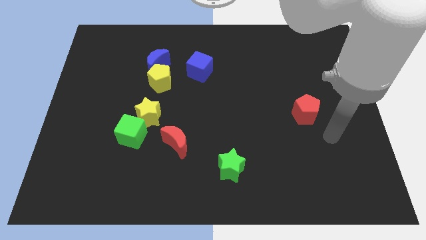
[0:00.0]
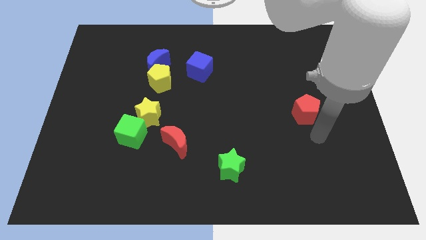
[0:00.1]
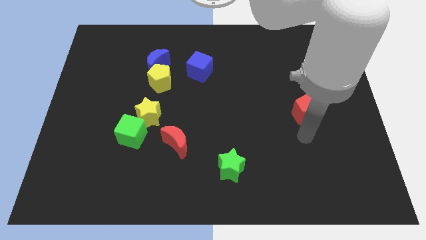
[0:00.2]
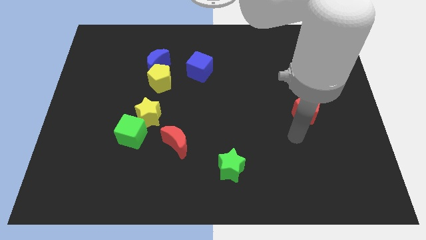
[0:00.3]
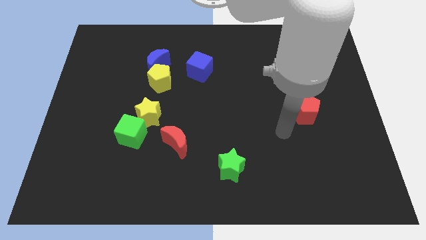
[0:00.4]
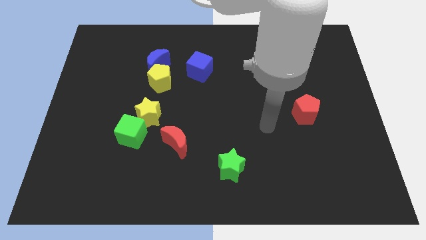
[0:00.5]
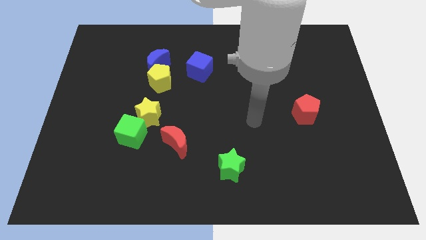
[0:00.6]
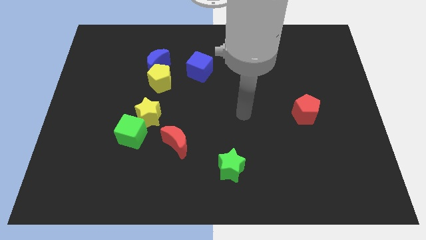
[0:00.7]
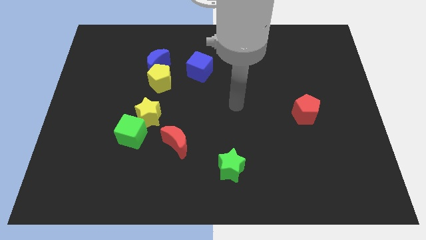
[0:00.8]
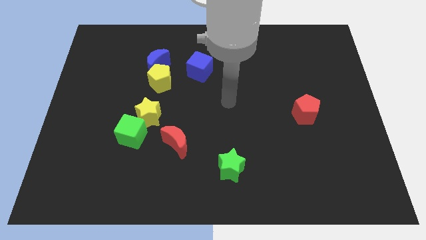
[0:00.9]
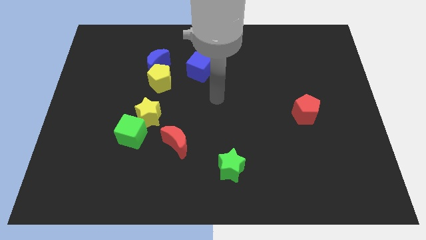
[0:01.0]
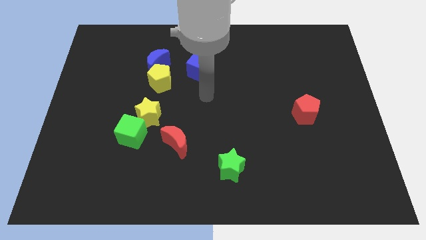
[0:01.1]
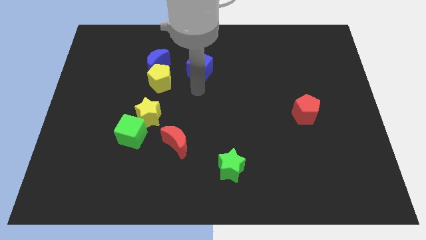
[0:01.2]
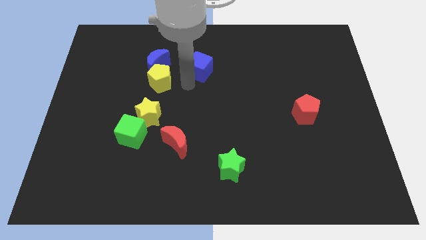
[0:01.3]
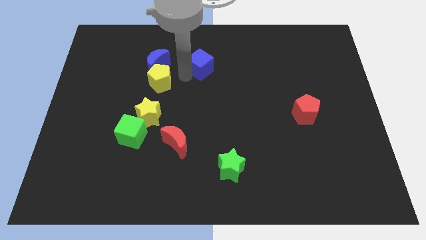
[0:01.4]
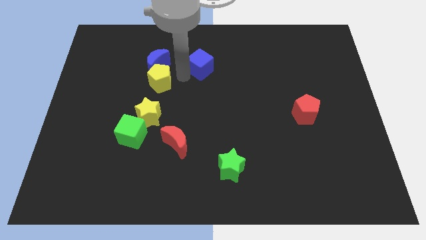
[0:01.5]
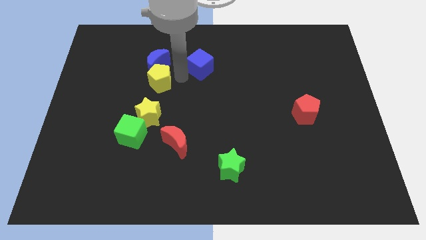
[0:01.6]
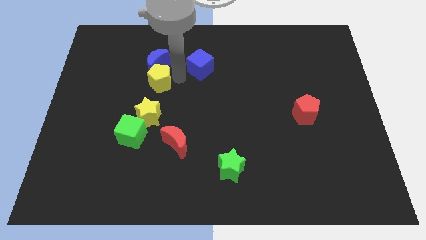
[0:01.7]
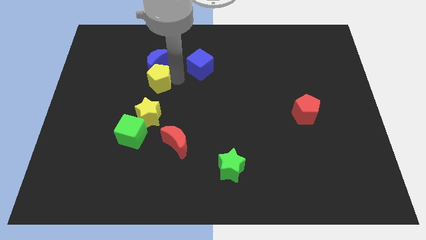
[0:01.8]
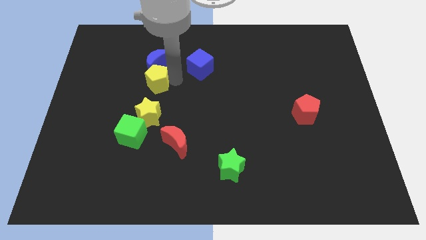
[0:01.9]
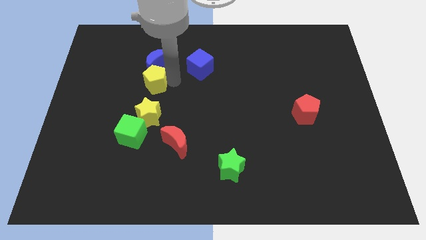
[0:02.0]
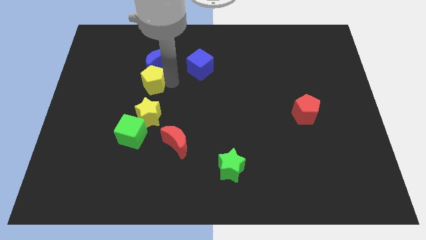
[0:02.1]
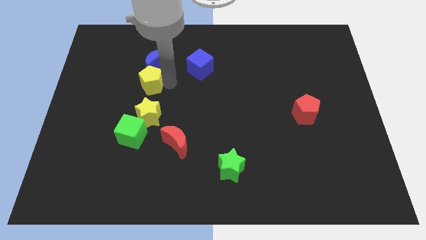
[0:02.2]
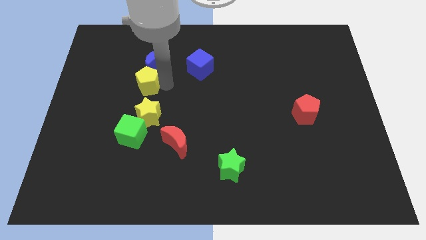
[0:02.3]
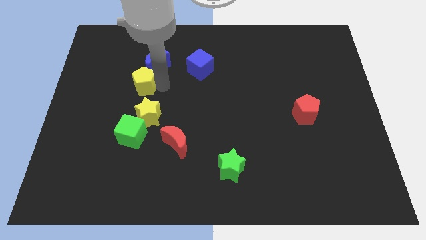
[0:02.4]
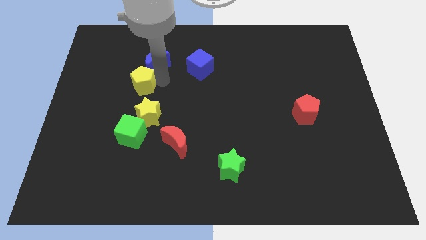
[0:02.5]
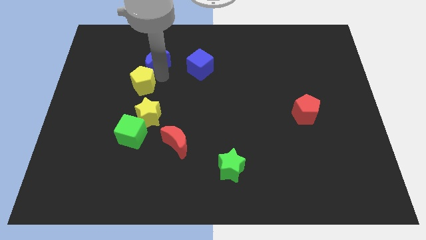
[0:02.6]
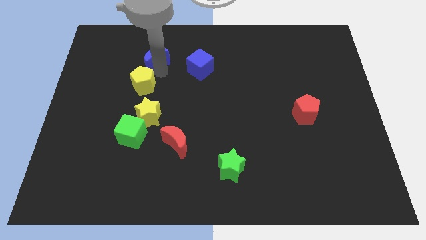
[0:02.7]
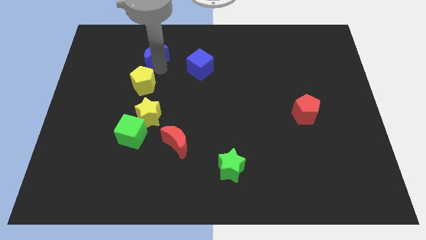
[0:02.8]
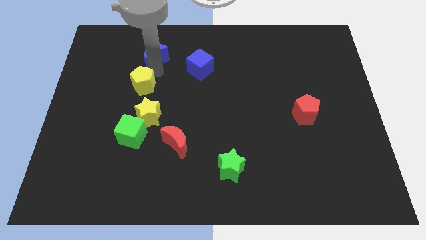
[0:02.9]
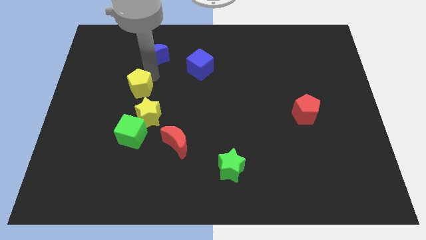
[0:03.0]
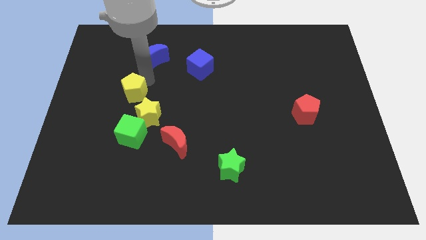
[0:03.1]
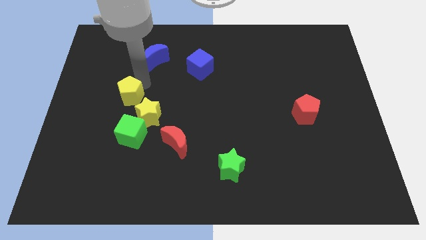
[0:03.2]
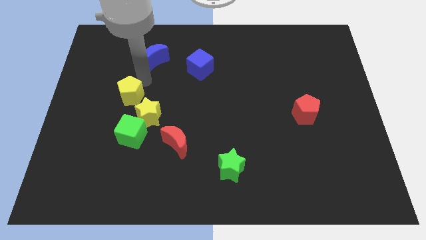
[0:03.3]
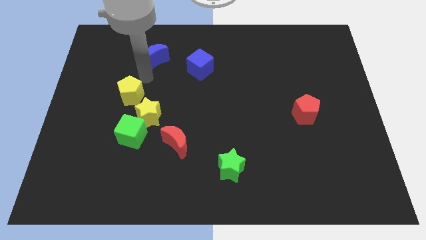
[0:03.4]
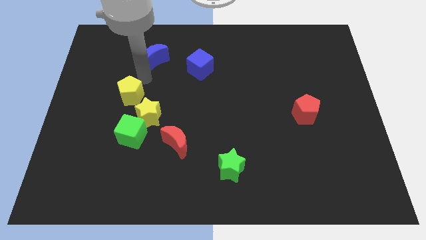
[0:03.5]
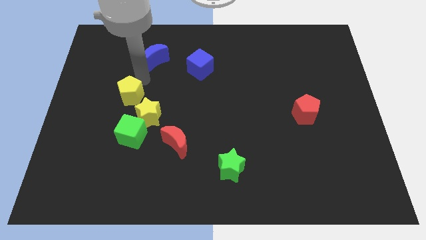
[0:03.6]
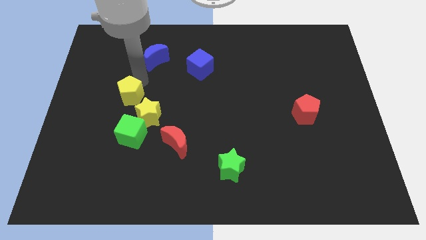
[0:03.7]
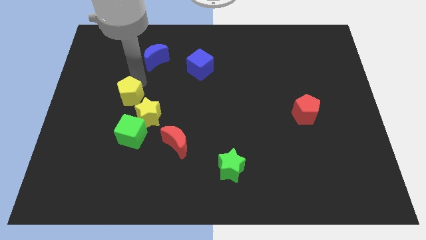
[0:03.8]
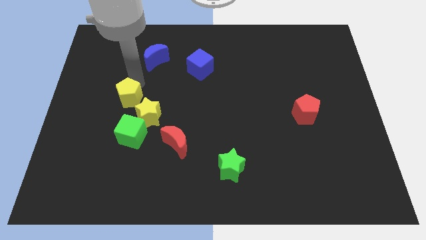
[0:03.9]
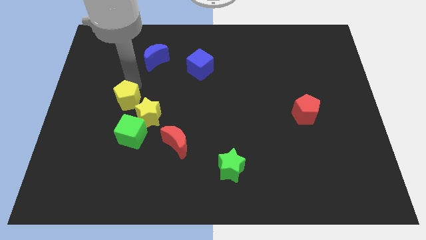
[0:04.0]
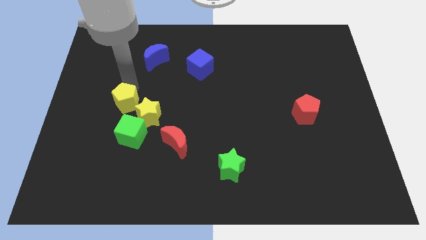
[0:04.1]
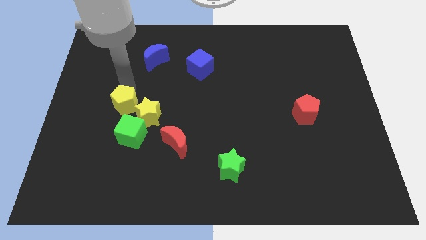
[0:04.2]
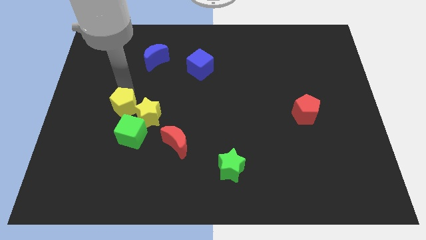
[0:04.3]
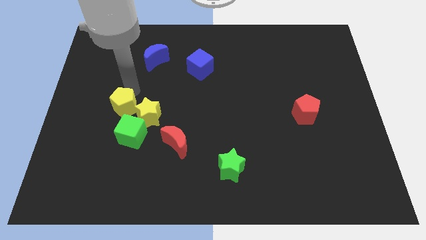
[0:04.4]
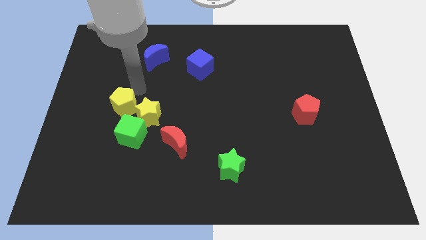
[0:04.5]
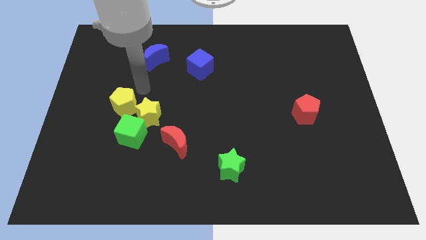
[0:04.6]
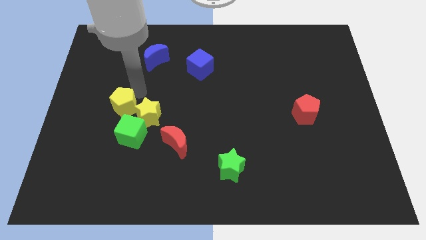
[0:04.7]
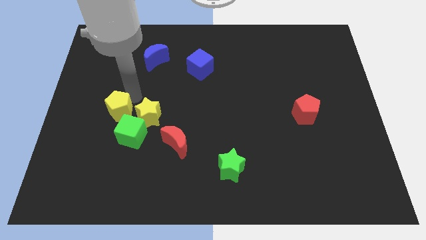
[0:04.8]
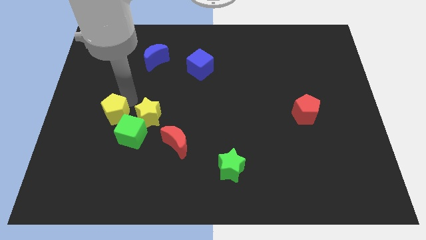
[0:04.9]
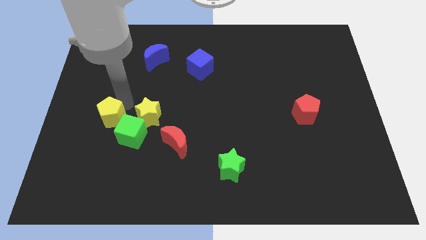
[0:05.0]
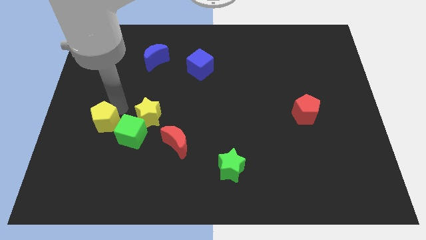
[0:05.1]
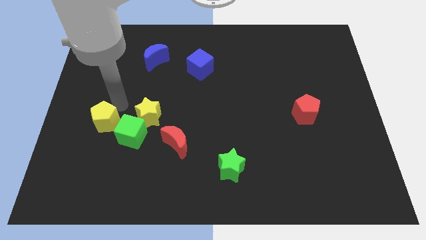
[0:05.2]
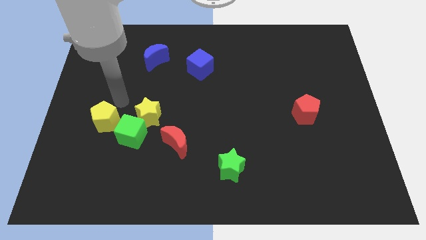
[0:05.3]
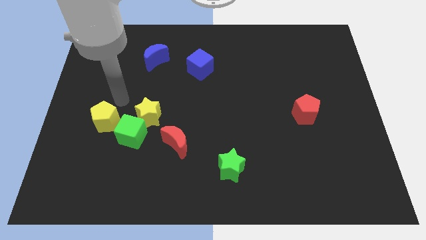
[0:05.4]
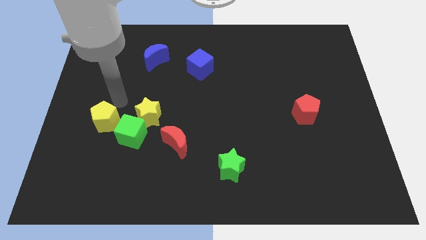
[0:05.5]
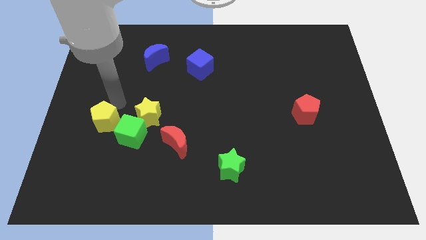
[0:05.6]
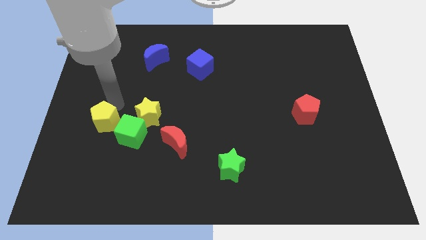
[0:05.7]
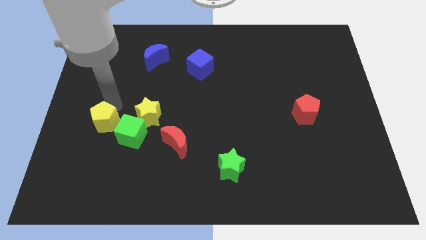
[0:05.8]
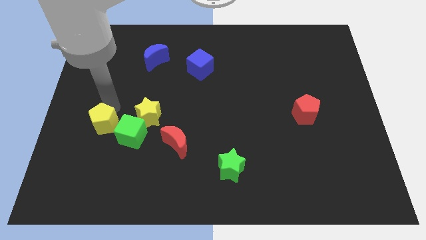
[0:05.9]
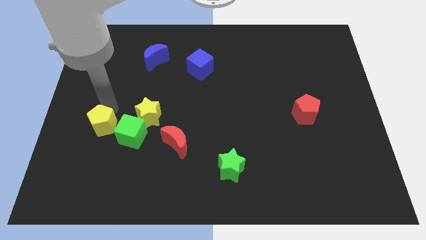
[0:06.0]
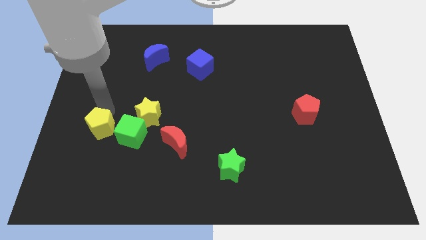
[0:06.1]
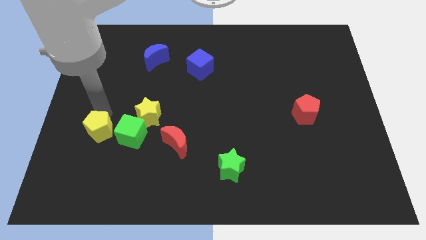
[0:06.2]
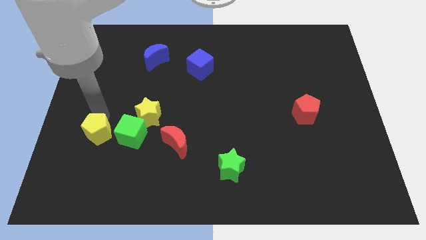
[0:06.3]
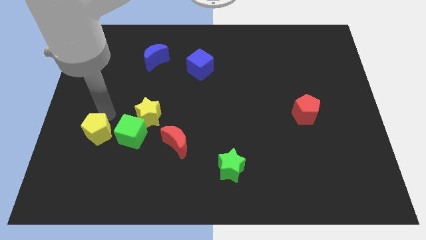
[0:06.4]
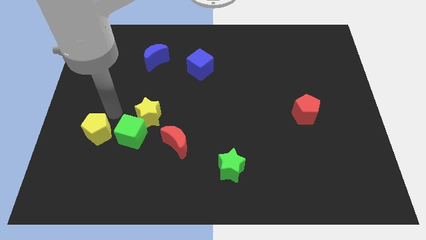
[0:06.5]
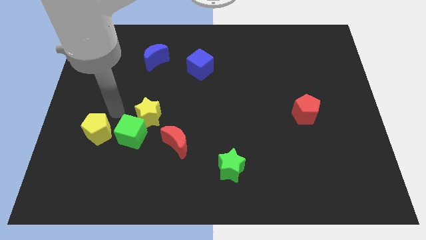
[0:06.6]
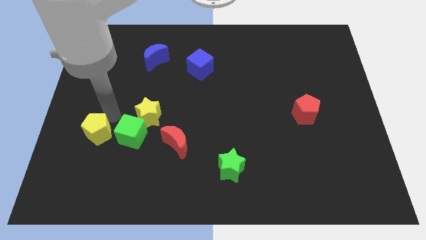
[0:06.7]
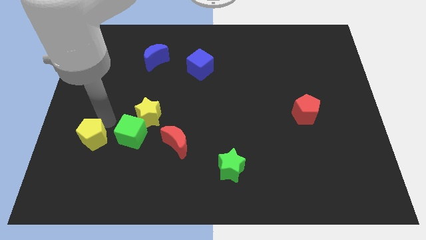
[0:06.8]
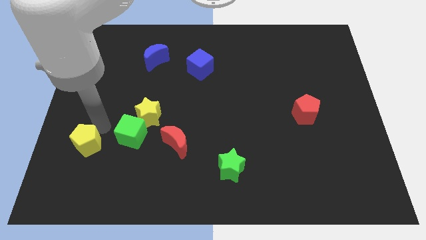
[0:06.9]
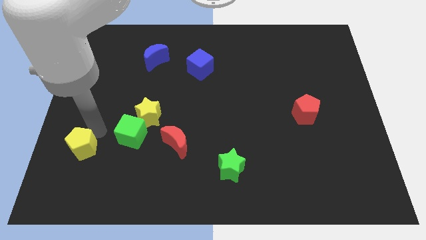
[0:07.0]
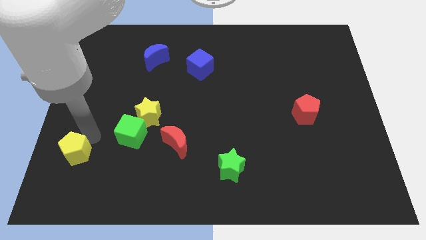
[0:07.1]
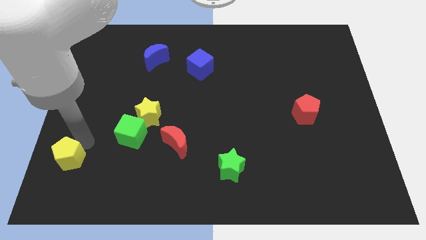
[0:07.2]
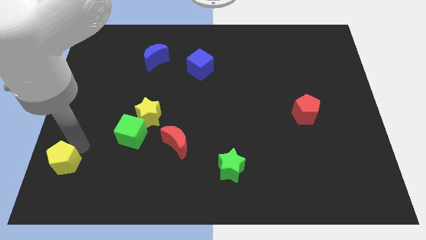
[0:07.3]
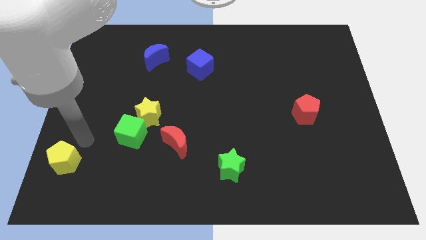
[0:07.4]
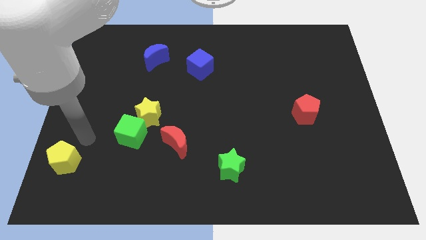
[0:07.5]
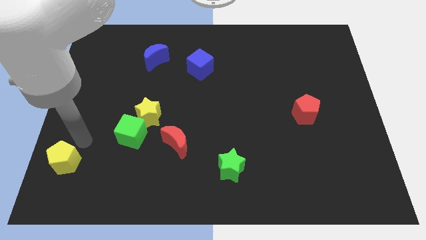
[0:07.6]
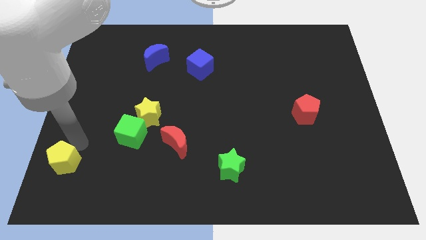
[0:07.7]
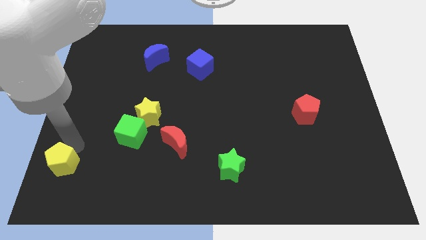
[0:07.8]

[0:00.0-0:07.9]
slide the yellow pentagon to the lower left corner
